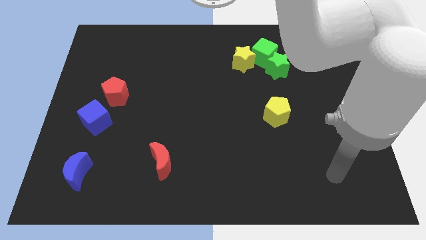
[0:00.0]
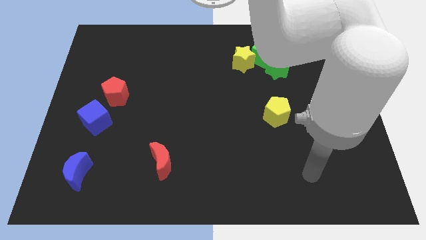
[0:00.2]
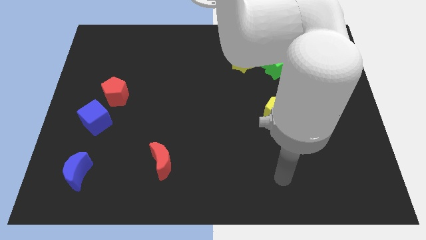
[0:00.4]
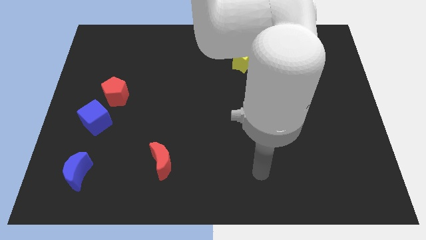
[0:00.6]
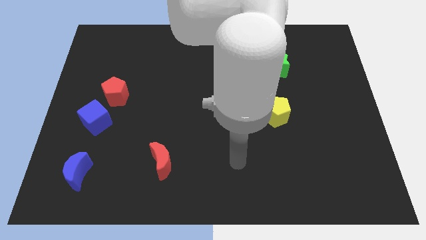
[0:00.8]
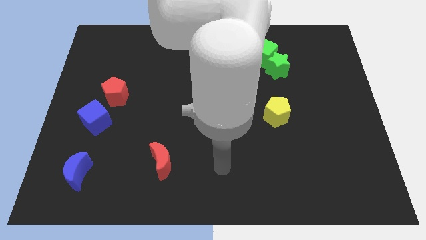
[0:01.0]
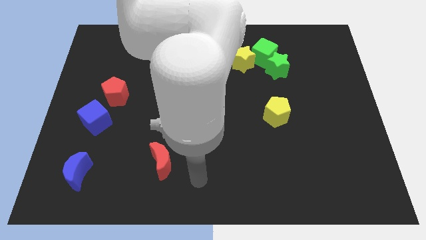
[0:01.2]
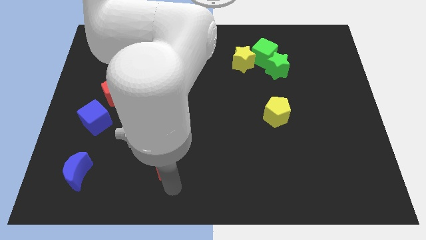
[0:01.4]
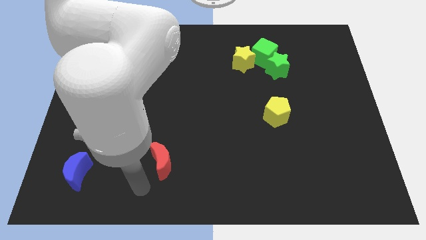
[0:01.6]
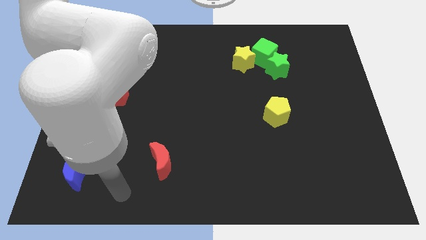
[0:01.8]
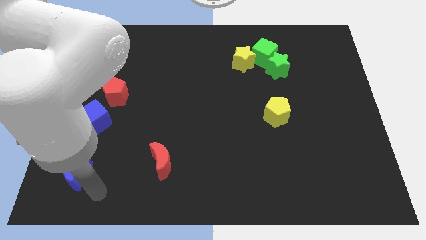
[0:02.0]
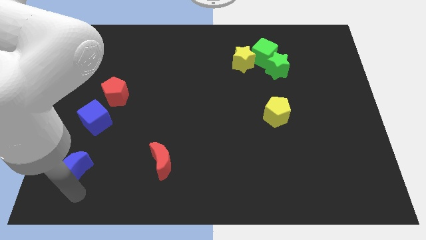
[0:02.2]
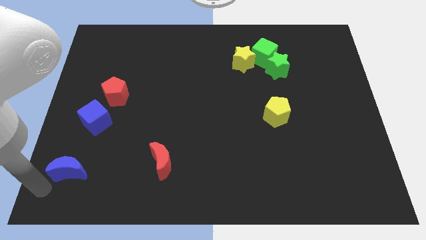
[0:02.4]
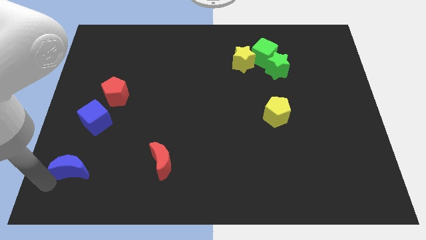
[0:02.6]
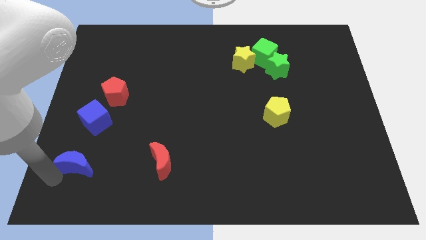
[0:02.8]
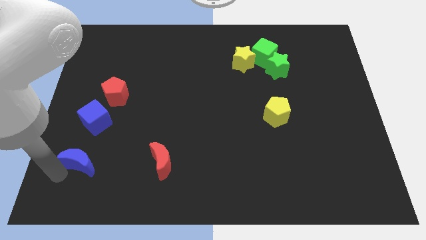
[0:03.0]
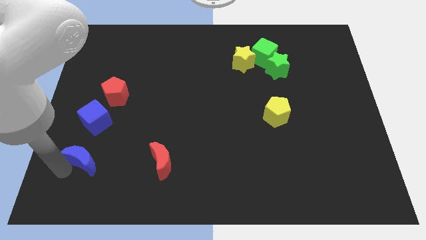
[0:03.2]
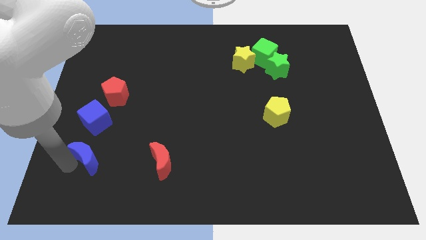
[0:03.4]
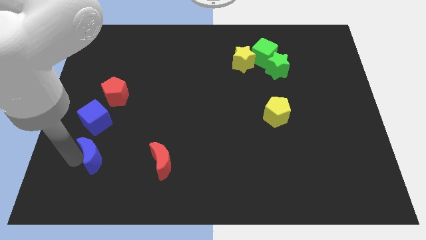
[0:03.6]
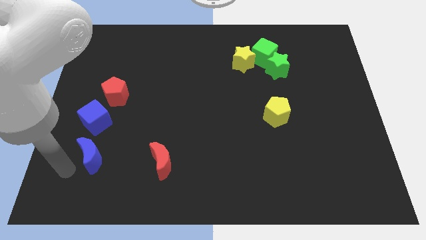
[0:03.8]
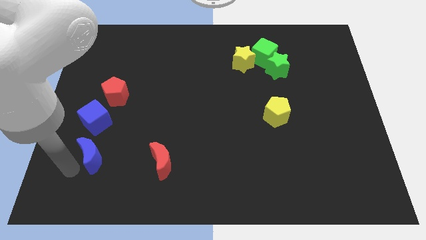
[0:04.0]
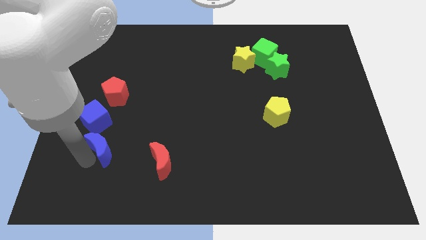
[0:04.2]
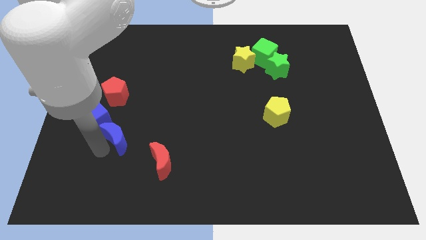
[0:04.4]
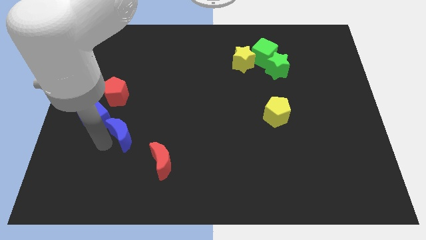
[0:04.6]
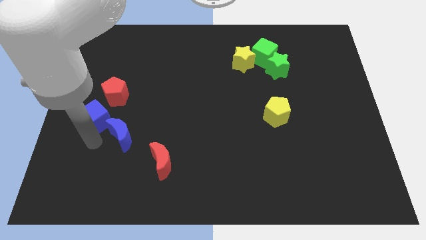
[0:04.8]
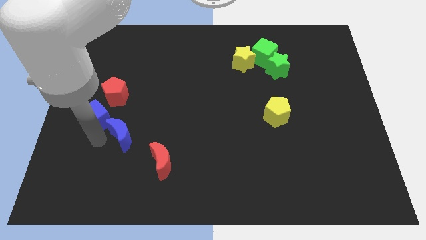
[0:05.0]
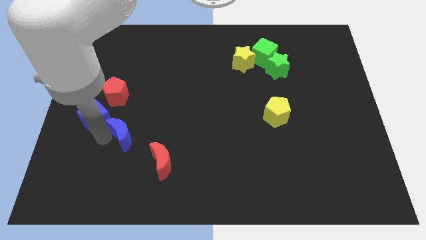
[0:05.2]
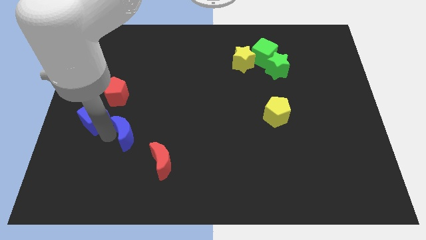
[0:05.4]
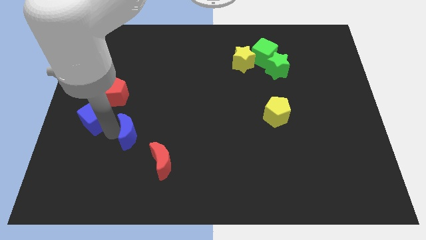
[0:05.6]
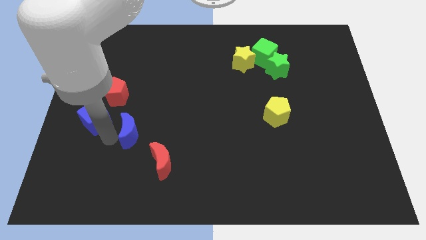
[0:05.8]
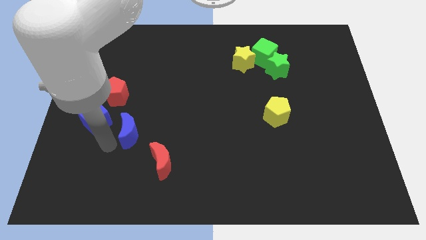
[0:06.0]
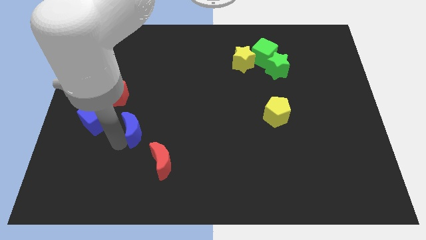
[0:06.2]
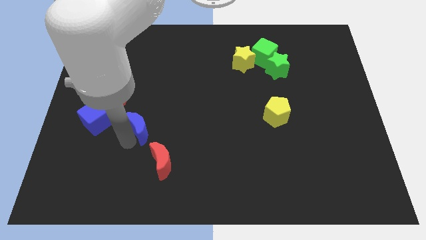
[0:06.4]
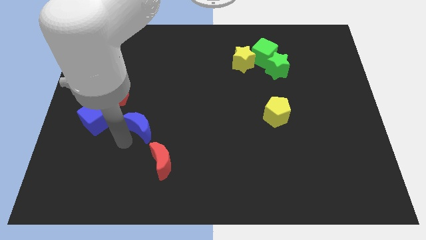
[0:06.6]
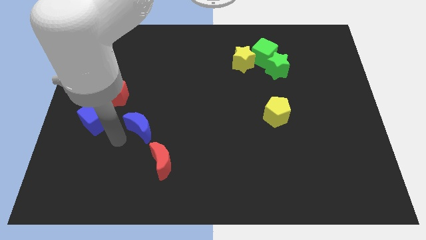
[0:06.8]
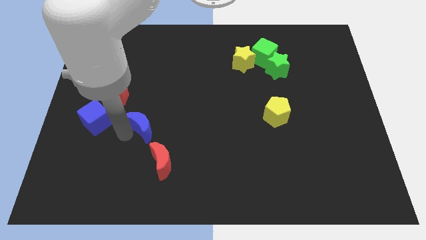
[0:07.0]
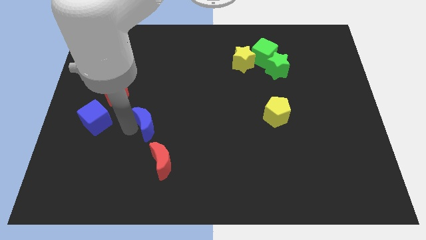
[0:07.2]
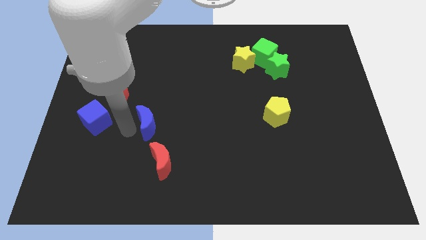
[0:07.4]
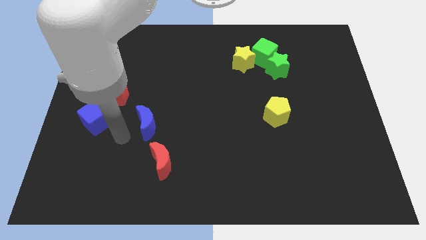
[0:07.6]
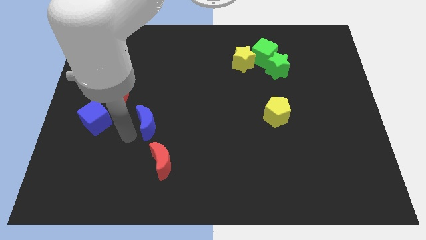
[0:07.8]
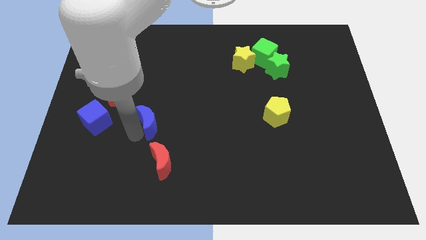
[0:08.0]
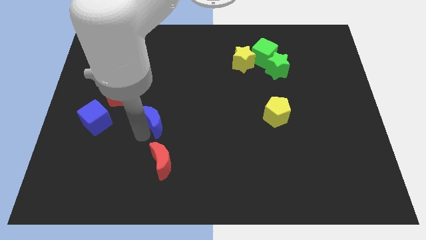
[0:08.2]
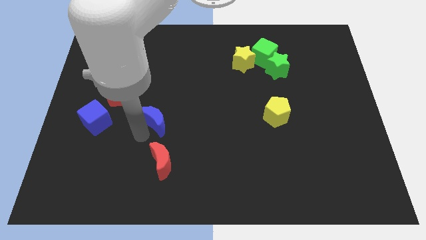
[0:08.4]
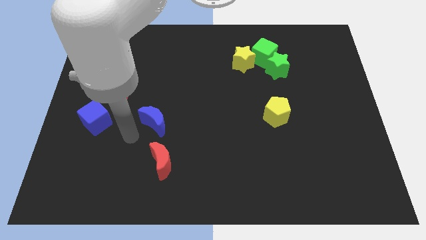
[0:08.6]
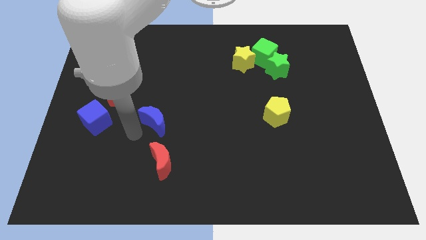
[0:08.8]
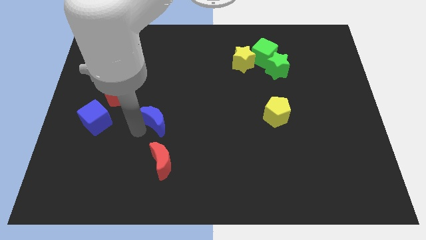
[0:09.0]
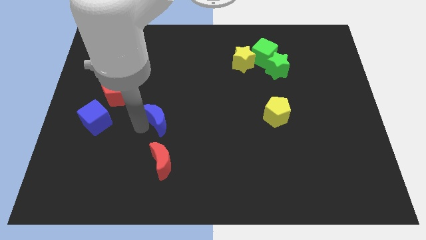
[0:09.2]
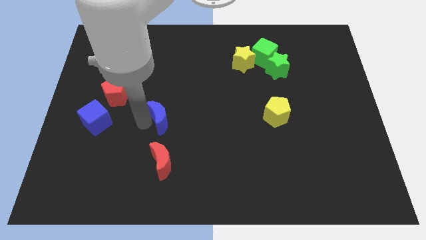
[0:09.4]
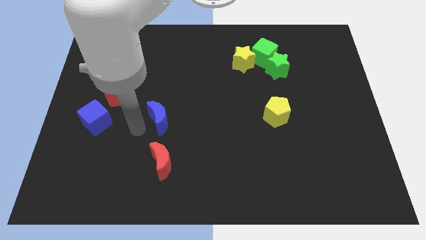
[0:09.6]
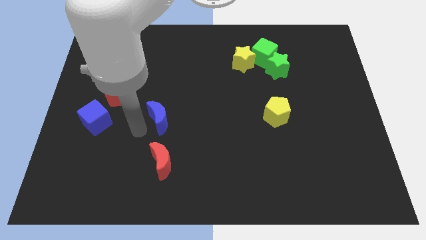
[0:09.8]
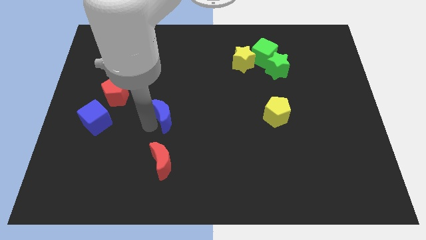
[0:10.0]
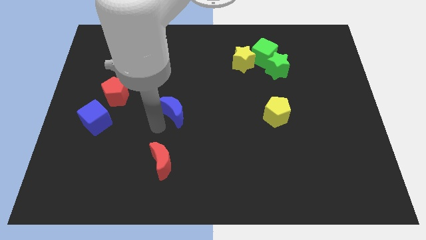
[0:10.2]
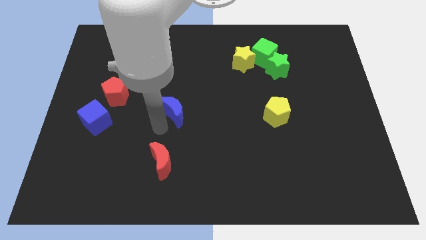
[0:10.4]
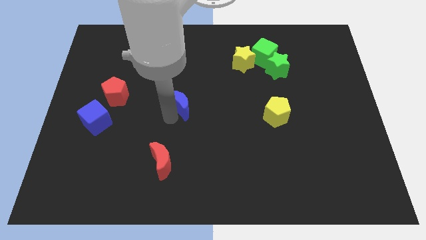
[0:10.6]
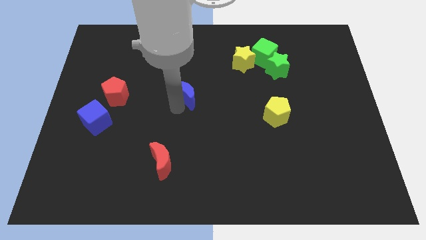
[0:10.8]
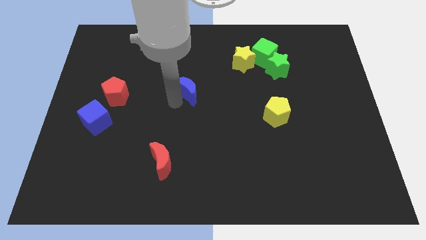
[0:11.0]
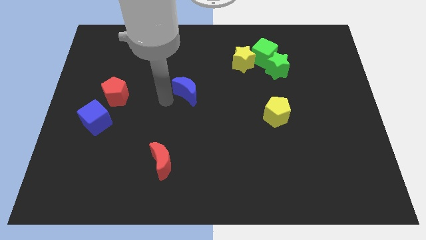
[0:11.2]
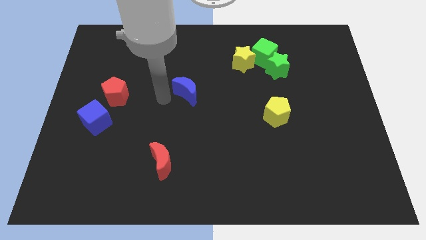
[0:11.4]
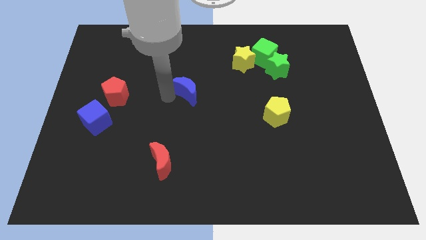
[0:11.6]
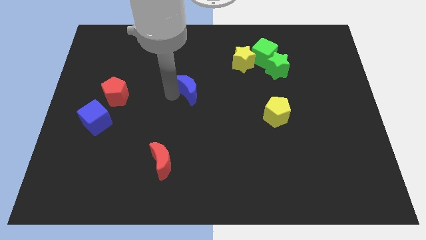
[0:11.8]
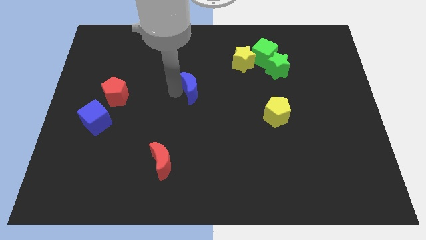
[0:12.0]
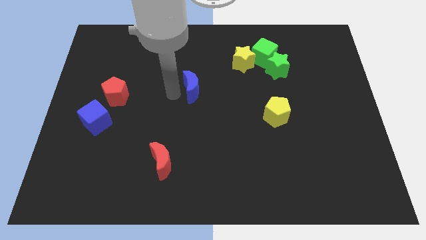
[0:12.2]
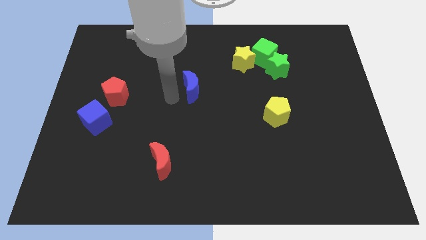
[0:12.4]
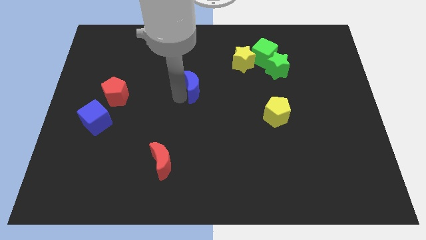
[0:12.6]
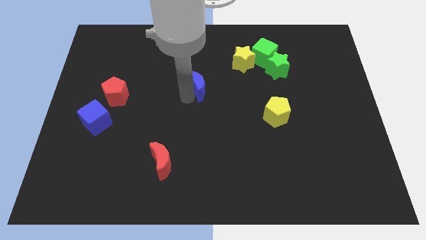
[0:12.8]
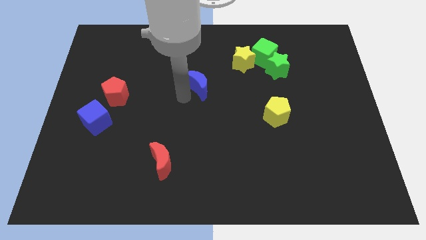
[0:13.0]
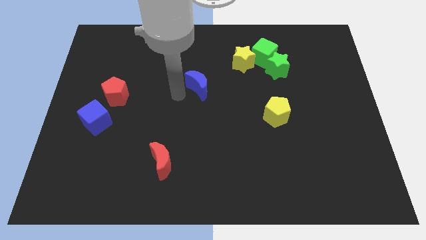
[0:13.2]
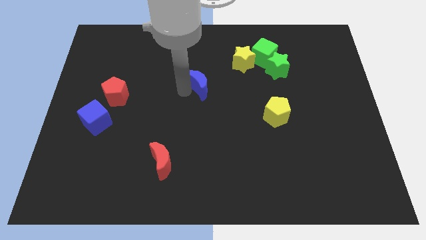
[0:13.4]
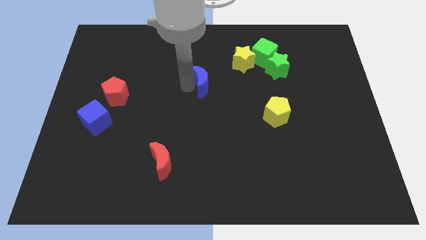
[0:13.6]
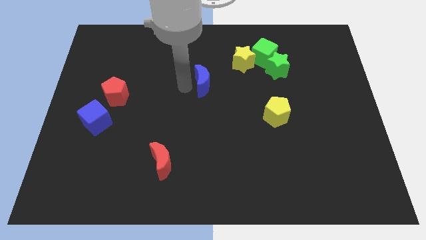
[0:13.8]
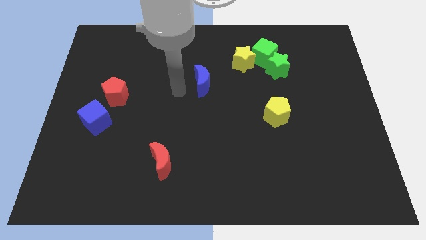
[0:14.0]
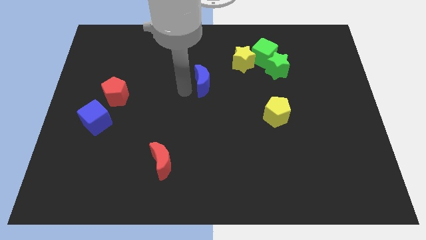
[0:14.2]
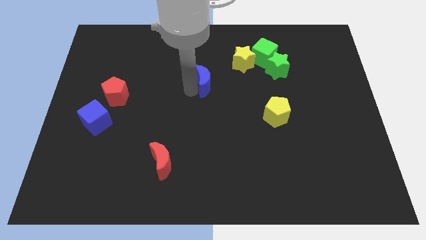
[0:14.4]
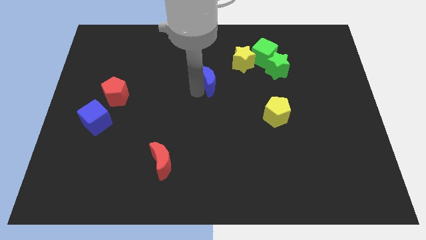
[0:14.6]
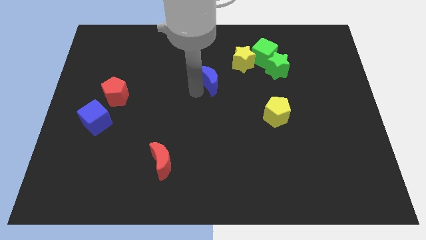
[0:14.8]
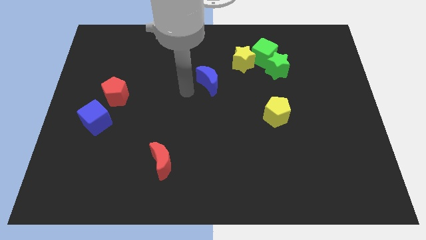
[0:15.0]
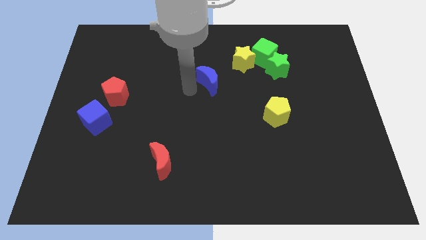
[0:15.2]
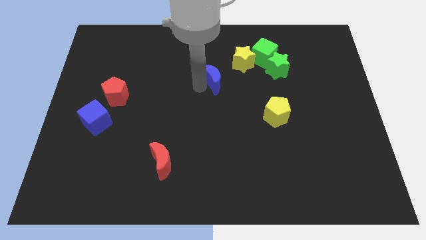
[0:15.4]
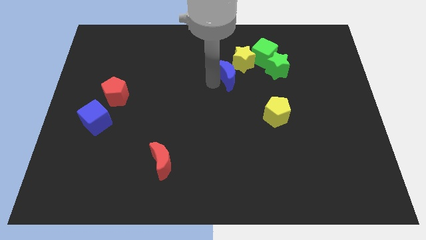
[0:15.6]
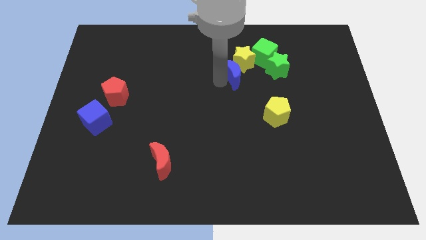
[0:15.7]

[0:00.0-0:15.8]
move the blue moon to the yellow star
